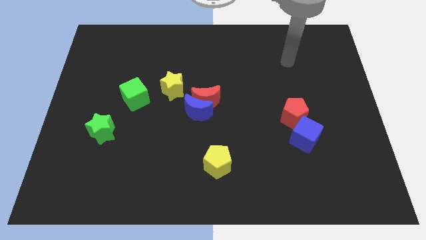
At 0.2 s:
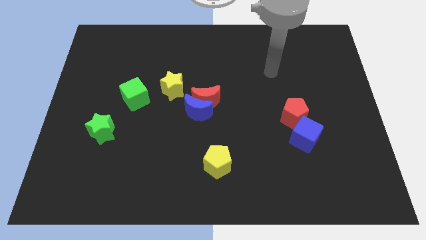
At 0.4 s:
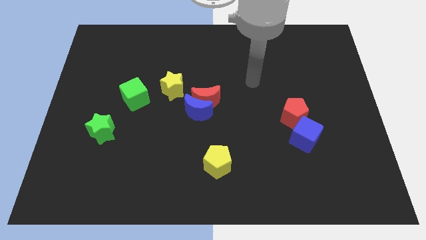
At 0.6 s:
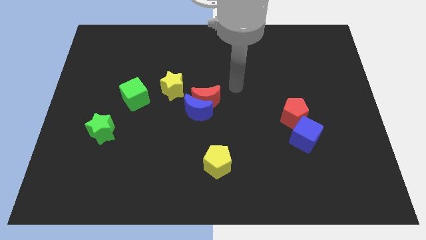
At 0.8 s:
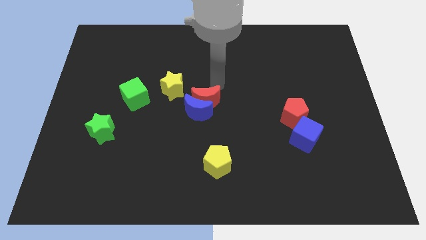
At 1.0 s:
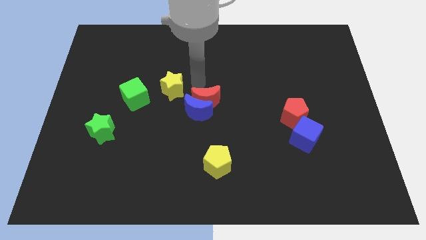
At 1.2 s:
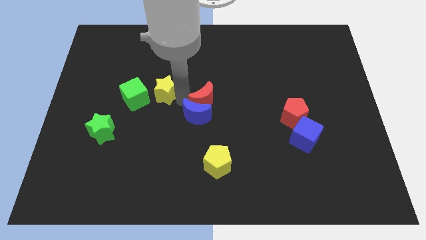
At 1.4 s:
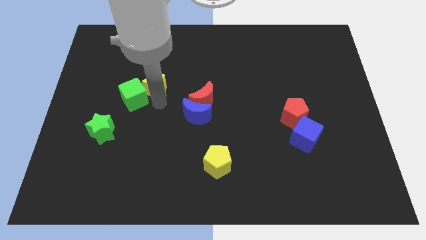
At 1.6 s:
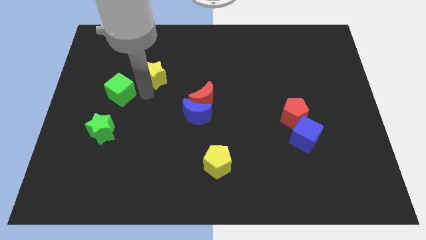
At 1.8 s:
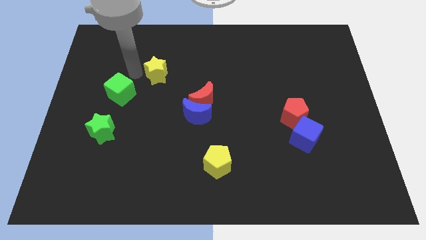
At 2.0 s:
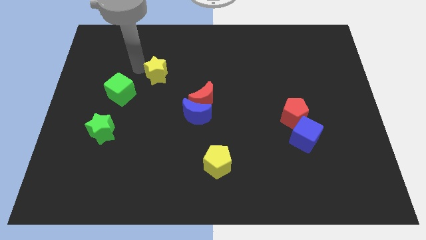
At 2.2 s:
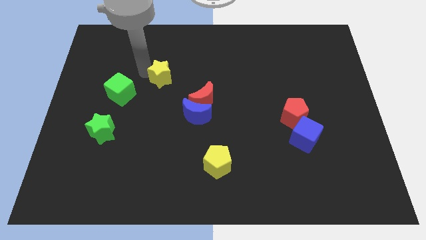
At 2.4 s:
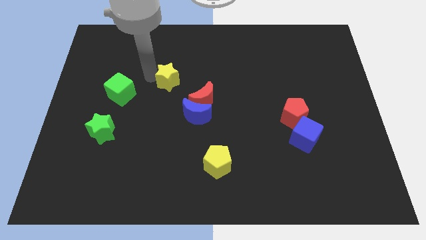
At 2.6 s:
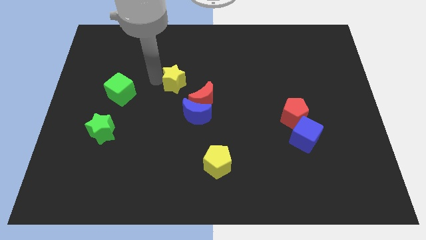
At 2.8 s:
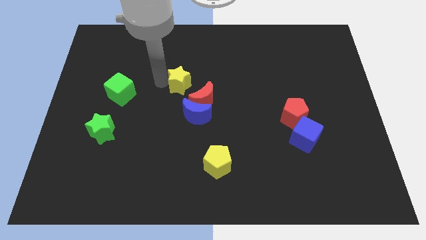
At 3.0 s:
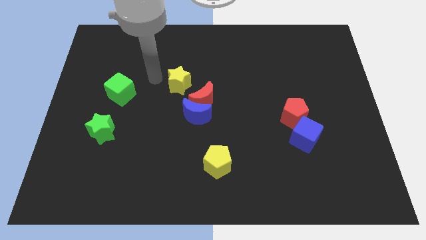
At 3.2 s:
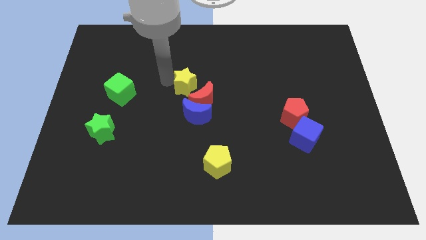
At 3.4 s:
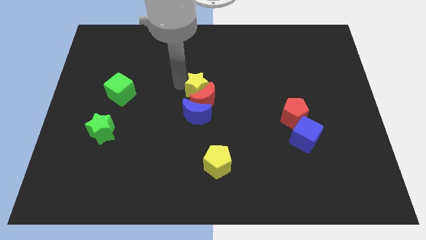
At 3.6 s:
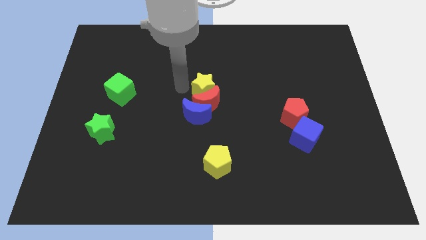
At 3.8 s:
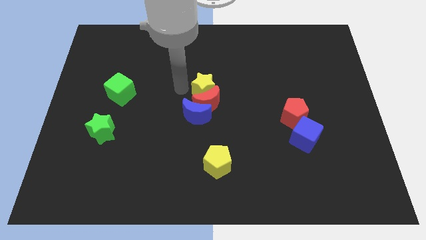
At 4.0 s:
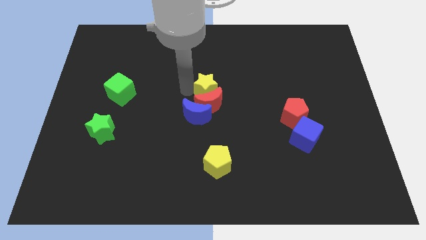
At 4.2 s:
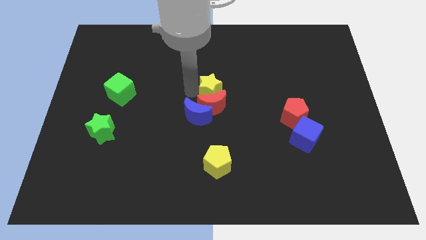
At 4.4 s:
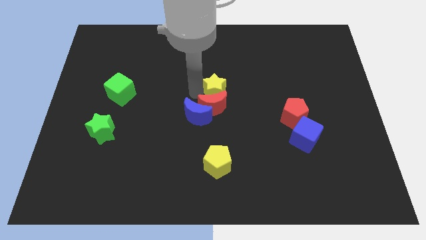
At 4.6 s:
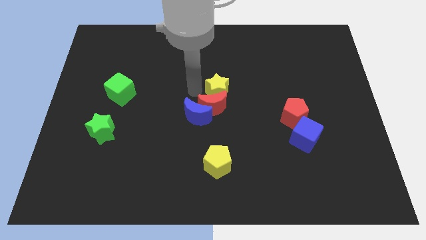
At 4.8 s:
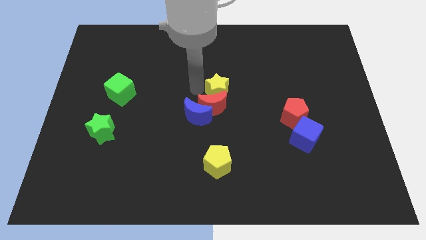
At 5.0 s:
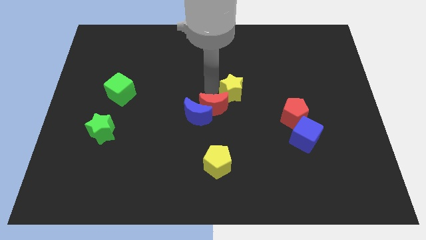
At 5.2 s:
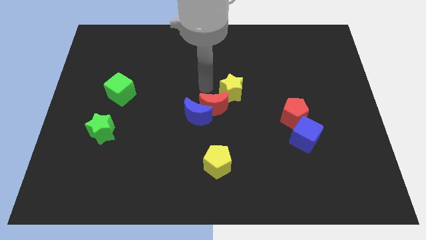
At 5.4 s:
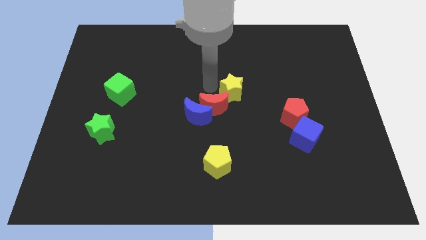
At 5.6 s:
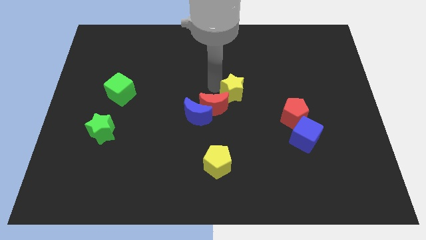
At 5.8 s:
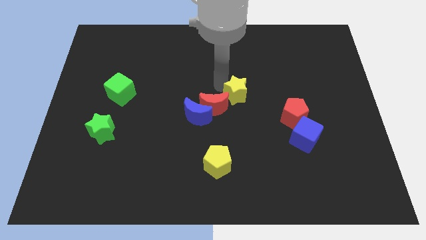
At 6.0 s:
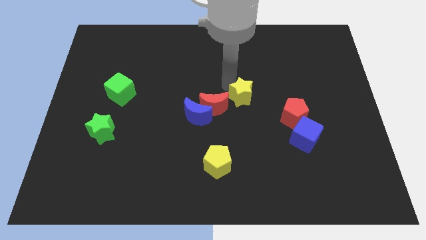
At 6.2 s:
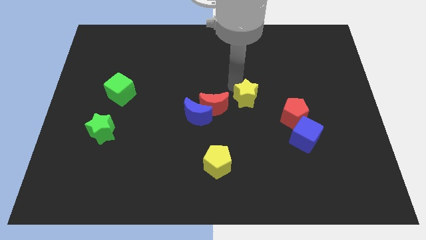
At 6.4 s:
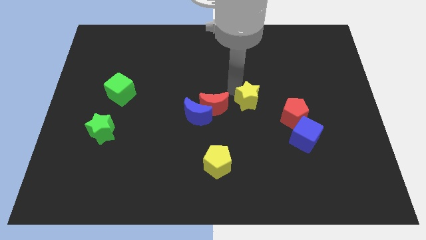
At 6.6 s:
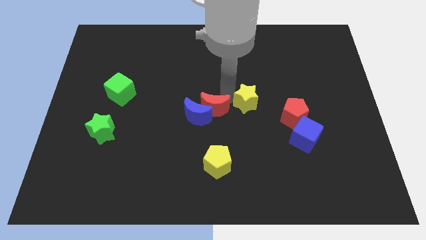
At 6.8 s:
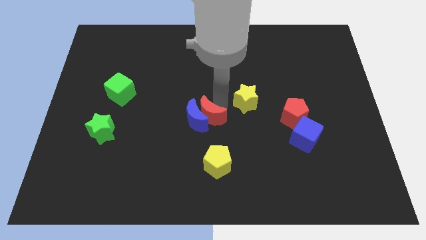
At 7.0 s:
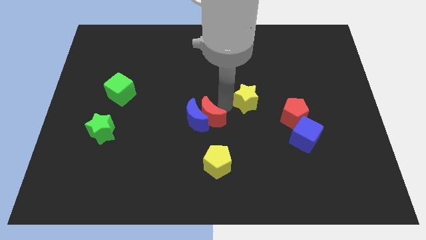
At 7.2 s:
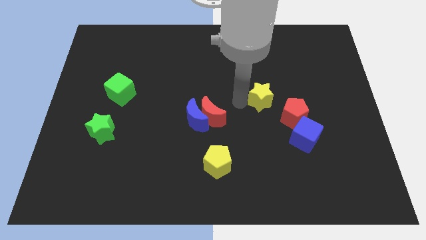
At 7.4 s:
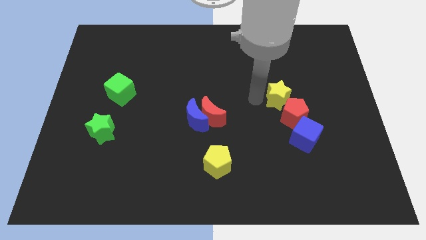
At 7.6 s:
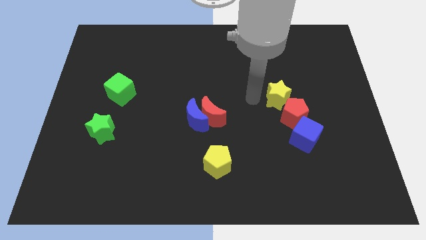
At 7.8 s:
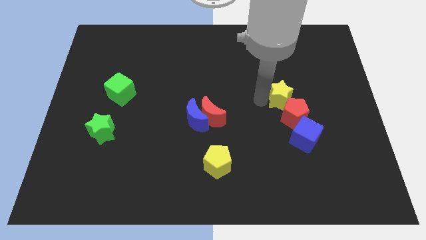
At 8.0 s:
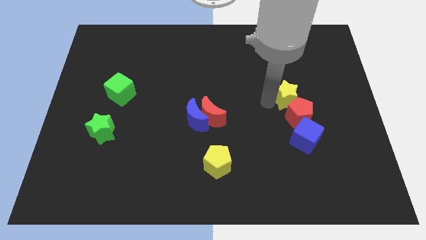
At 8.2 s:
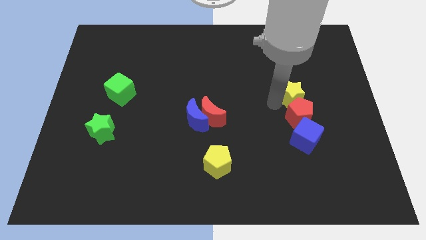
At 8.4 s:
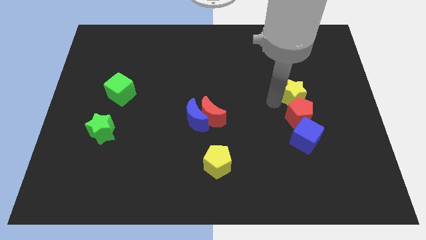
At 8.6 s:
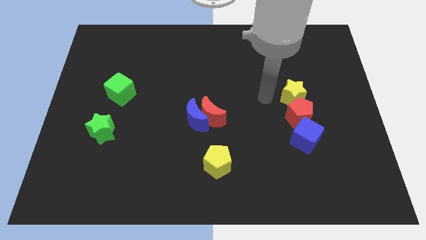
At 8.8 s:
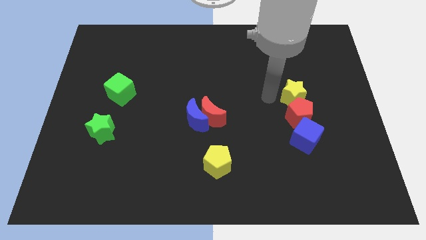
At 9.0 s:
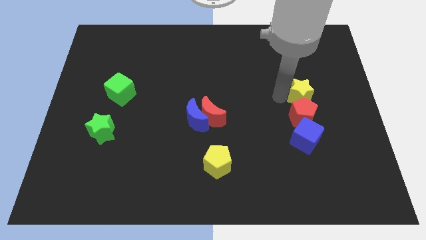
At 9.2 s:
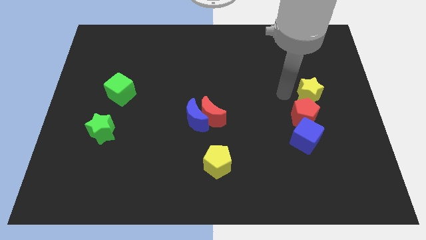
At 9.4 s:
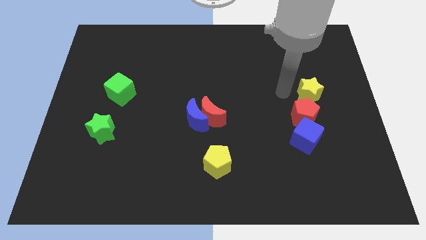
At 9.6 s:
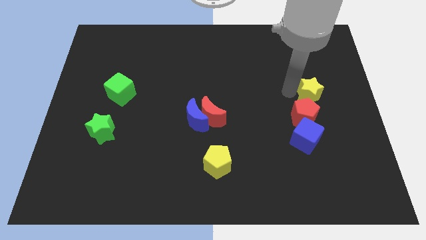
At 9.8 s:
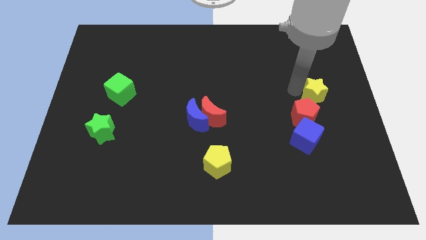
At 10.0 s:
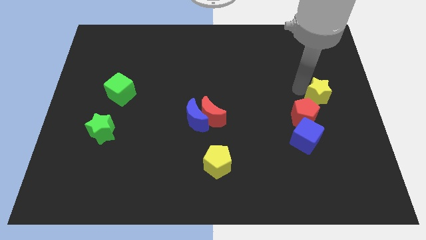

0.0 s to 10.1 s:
push the yellow star to the center right

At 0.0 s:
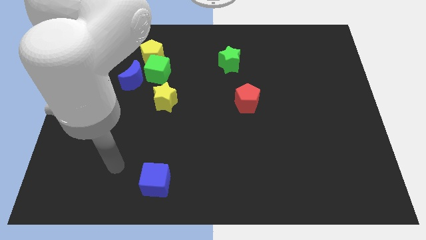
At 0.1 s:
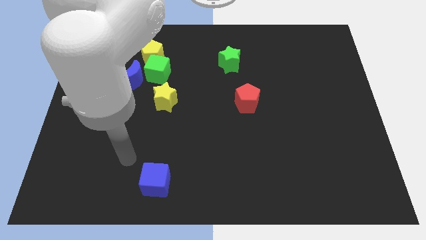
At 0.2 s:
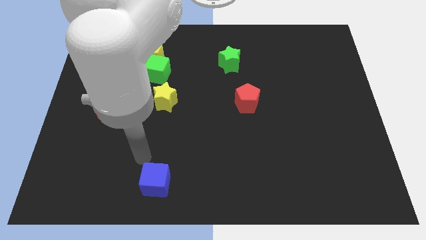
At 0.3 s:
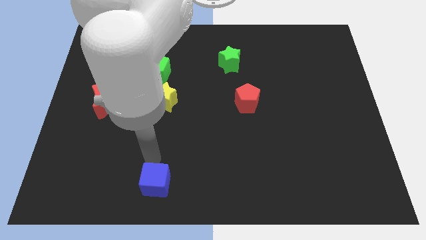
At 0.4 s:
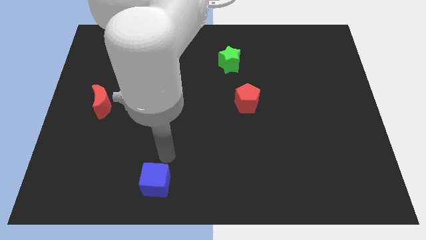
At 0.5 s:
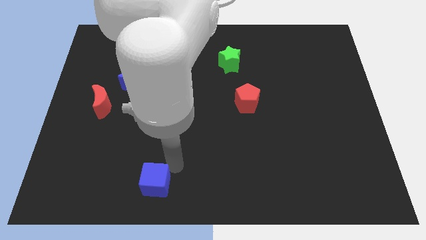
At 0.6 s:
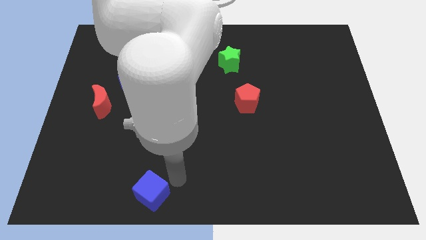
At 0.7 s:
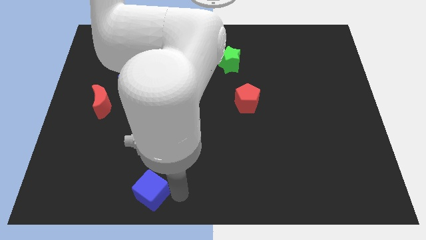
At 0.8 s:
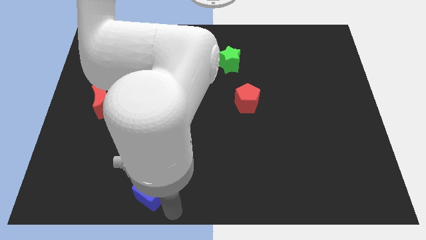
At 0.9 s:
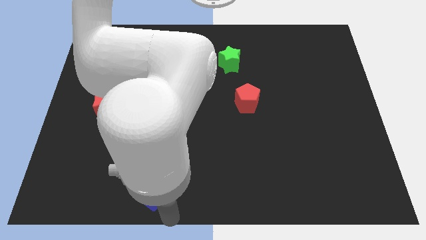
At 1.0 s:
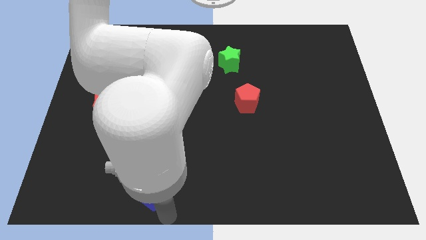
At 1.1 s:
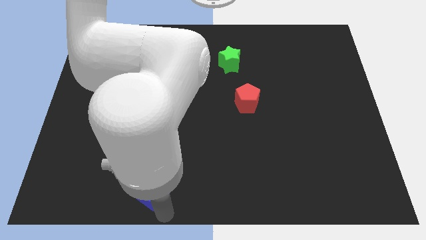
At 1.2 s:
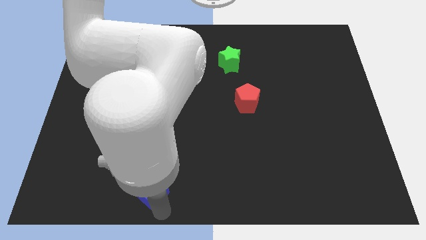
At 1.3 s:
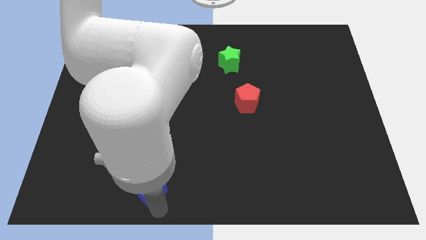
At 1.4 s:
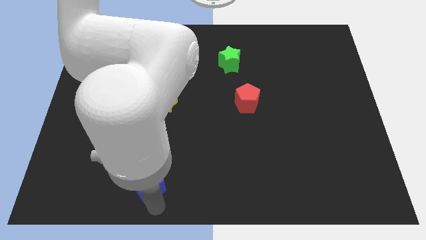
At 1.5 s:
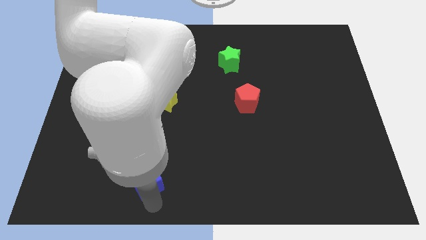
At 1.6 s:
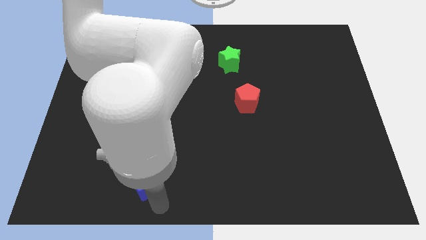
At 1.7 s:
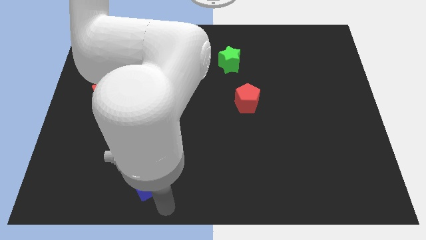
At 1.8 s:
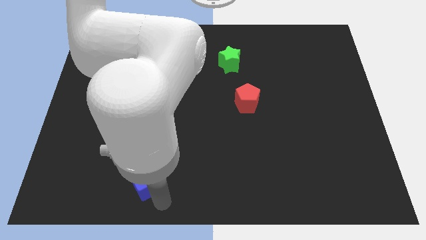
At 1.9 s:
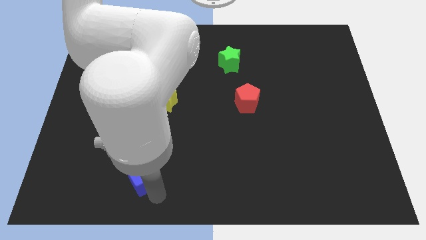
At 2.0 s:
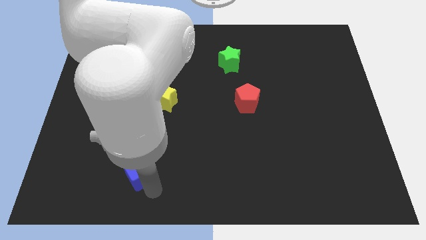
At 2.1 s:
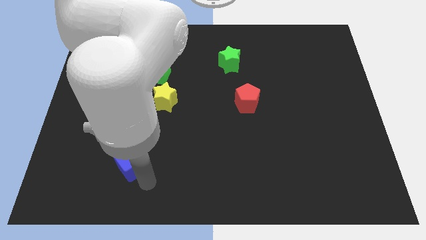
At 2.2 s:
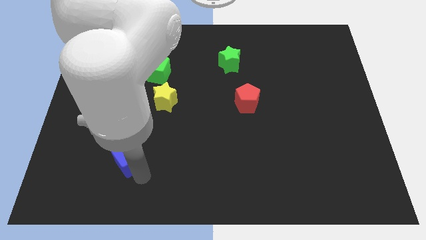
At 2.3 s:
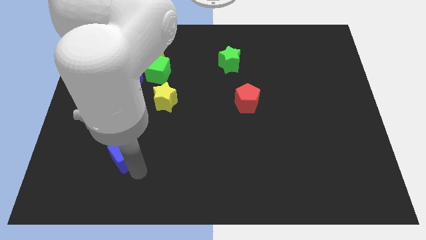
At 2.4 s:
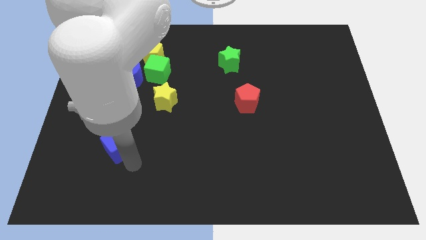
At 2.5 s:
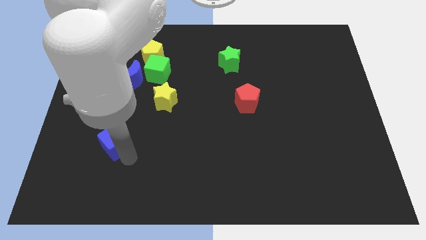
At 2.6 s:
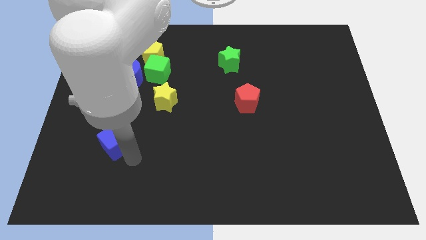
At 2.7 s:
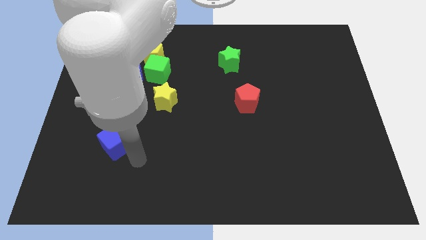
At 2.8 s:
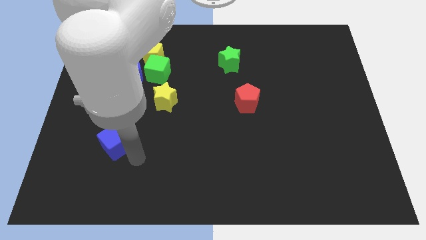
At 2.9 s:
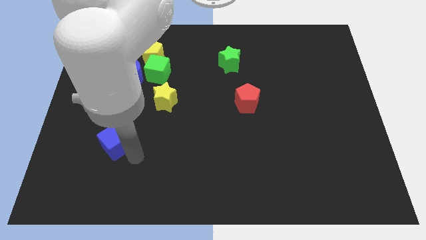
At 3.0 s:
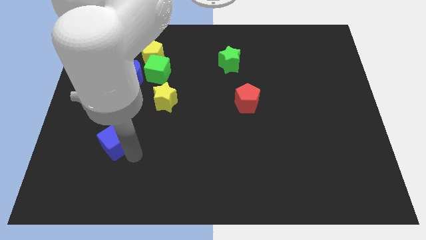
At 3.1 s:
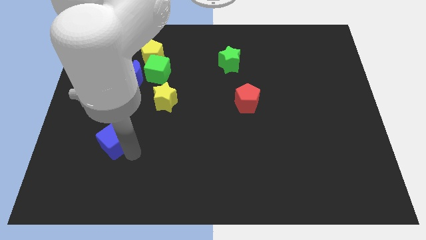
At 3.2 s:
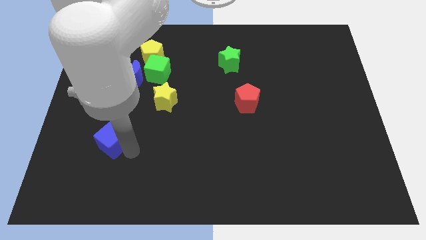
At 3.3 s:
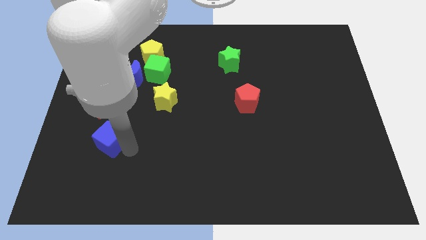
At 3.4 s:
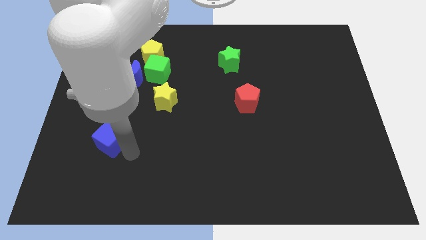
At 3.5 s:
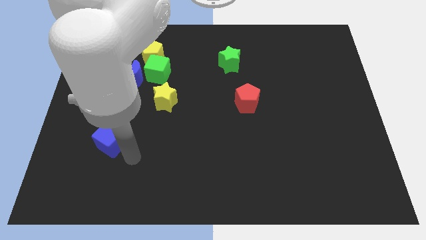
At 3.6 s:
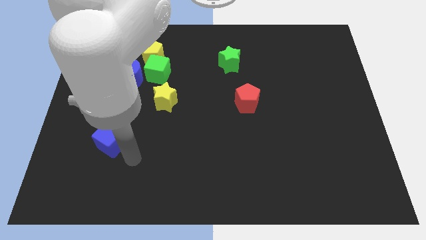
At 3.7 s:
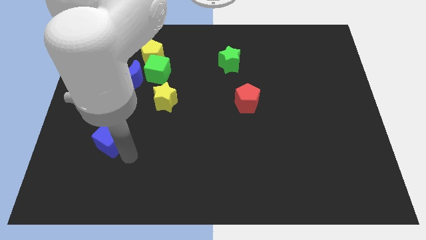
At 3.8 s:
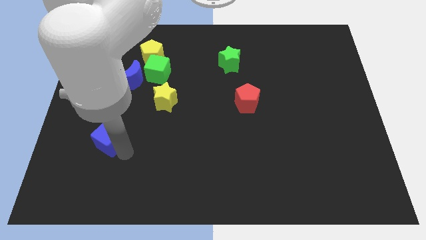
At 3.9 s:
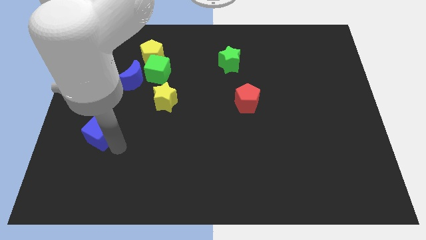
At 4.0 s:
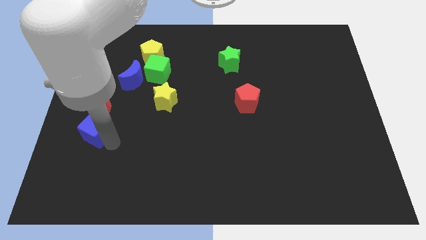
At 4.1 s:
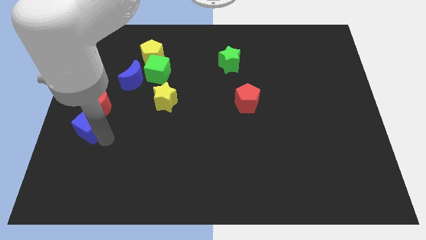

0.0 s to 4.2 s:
push the blue cube to the left side of the board
